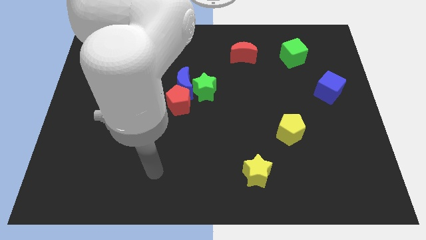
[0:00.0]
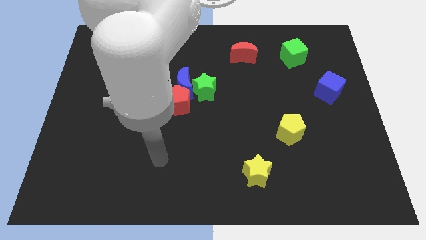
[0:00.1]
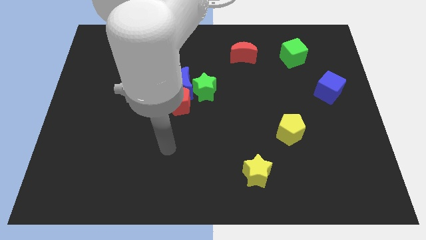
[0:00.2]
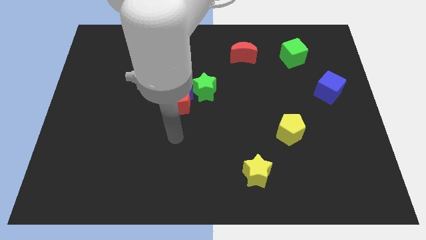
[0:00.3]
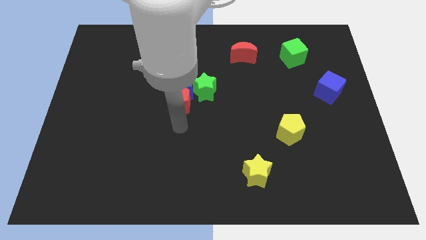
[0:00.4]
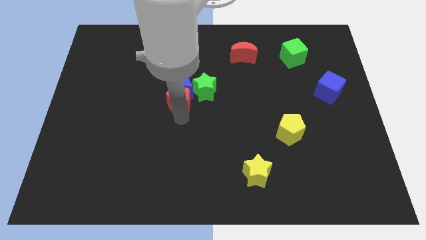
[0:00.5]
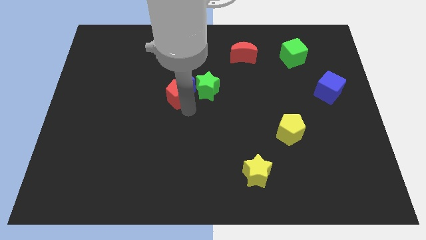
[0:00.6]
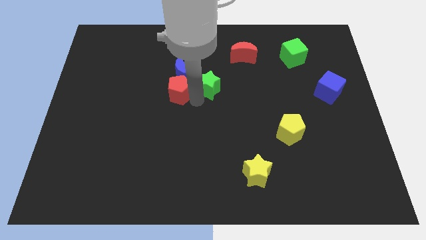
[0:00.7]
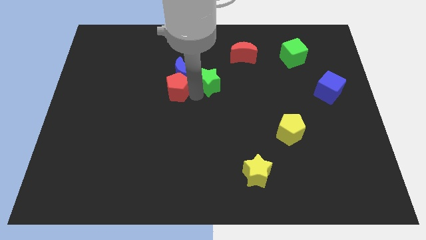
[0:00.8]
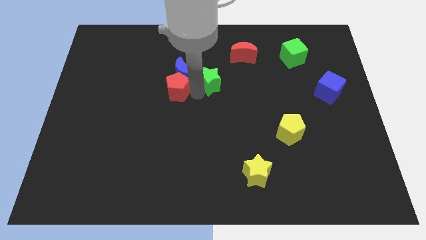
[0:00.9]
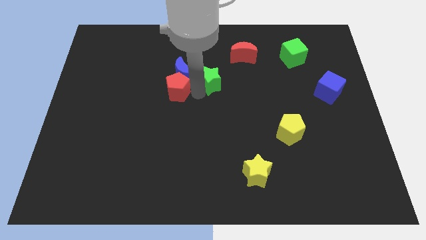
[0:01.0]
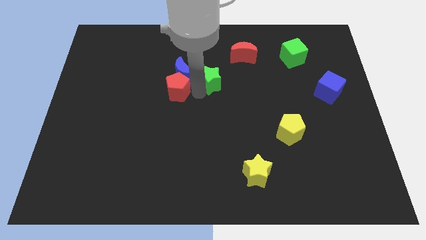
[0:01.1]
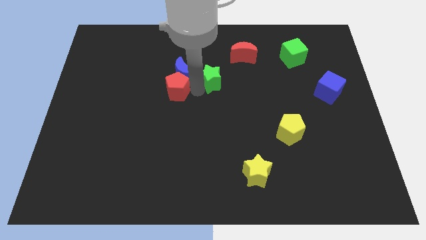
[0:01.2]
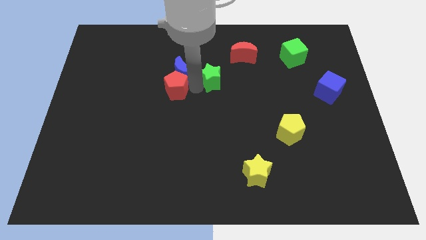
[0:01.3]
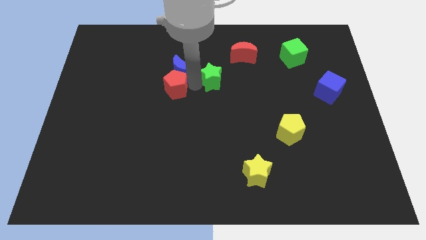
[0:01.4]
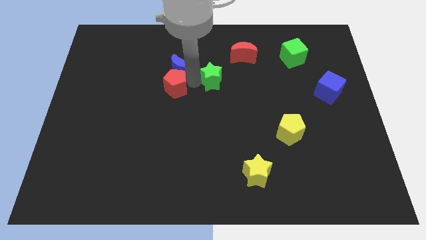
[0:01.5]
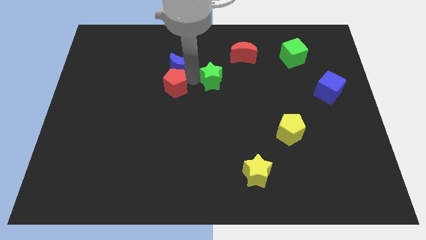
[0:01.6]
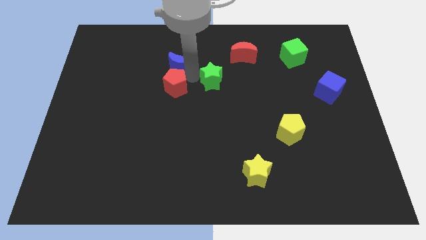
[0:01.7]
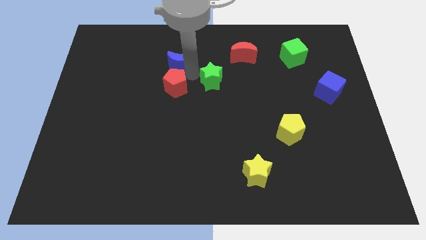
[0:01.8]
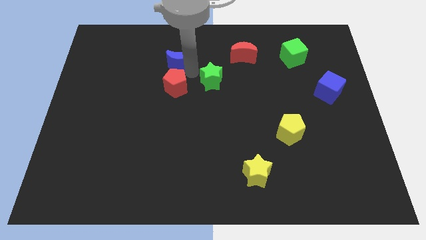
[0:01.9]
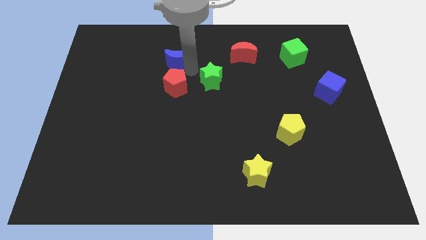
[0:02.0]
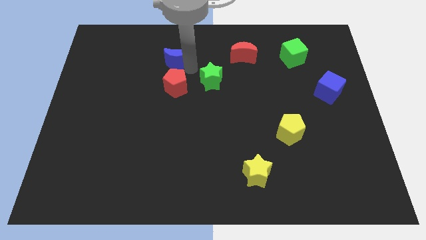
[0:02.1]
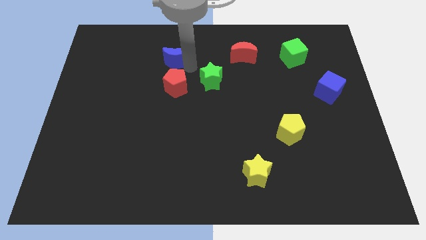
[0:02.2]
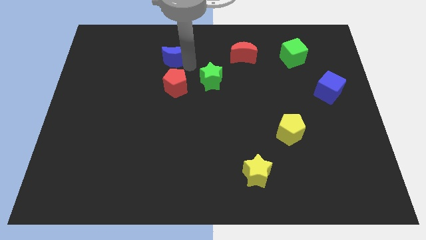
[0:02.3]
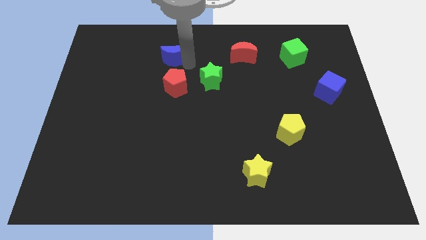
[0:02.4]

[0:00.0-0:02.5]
move the blue moon away from the green star and red pentagon

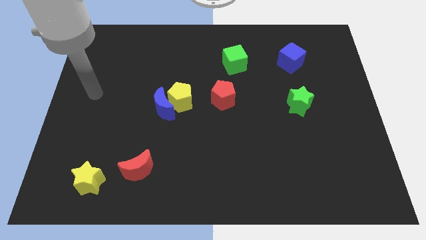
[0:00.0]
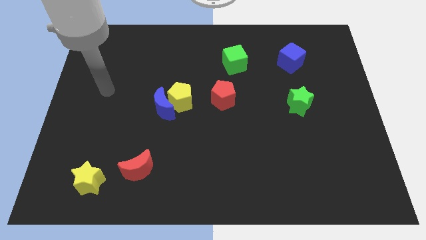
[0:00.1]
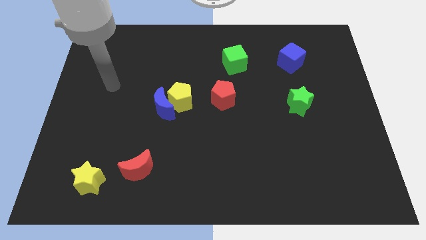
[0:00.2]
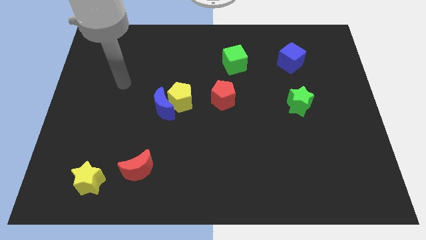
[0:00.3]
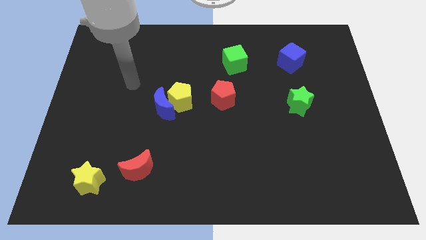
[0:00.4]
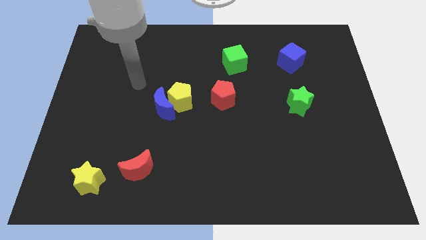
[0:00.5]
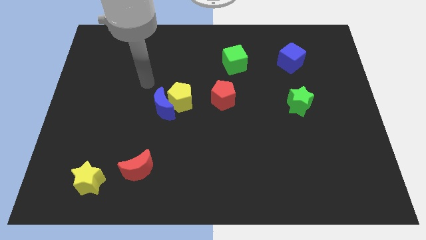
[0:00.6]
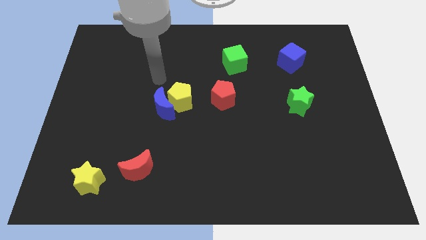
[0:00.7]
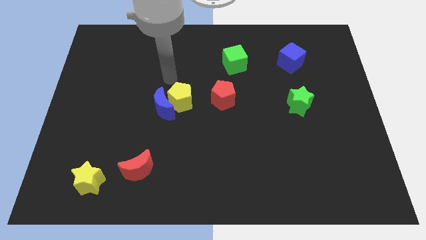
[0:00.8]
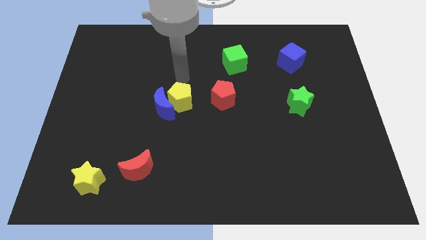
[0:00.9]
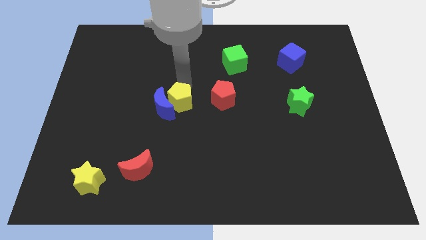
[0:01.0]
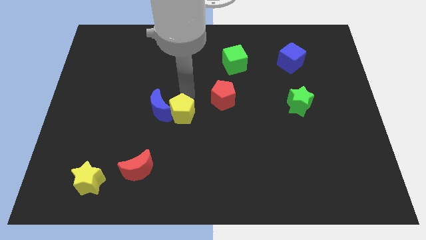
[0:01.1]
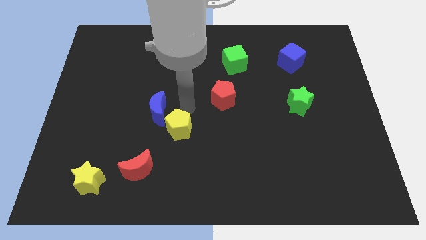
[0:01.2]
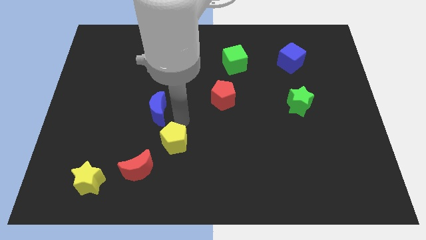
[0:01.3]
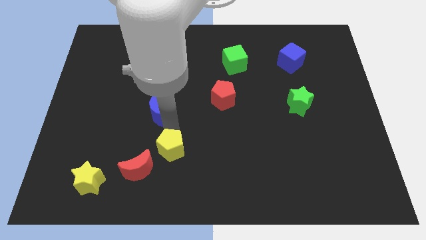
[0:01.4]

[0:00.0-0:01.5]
separate the blue moon from the yellow pentagon

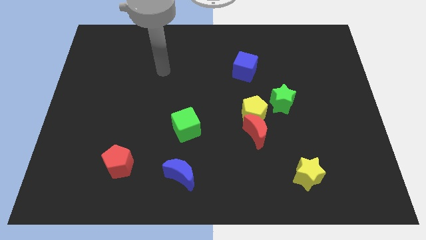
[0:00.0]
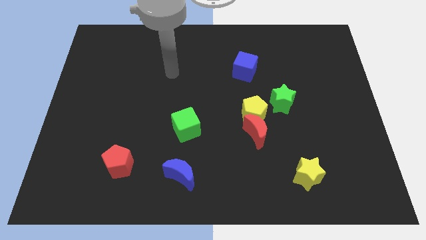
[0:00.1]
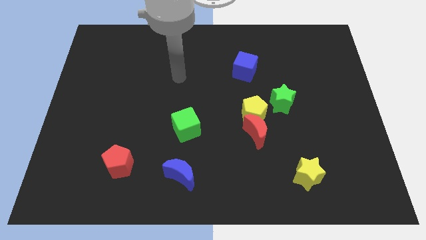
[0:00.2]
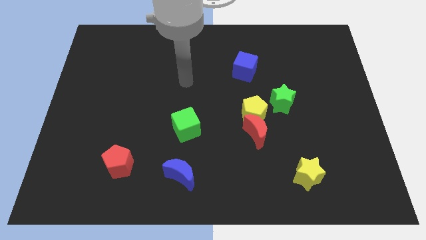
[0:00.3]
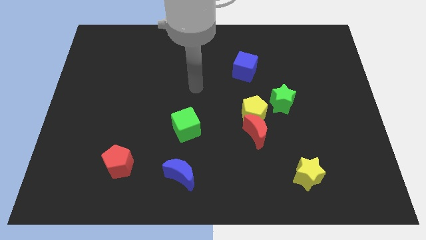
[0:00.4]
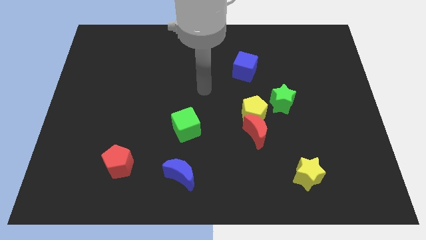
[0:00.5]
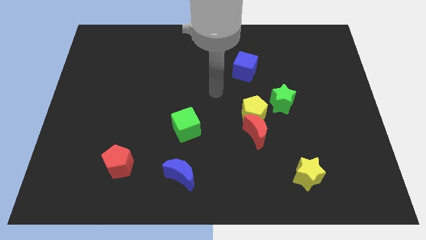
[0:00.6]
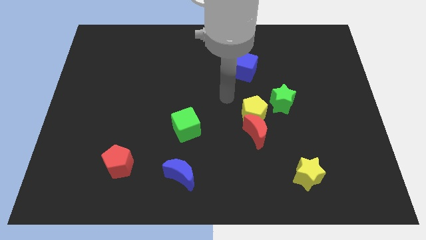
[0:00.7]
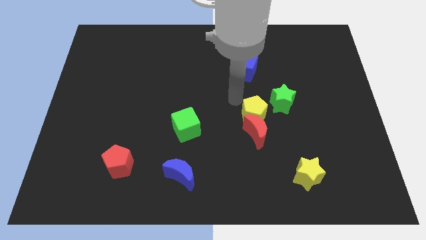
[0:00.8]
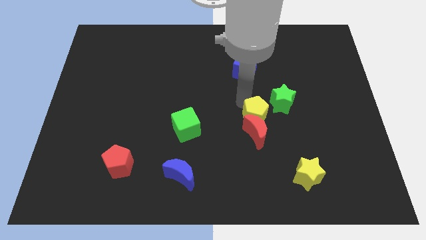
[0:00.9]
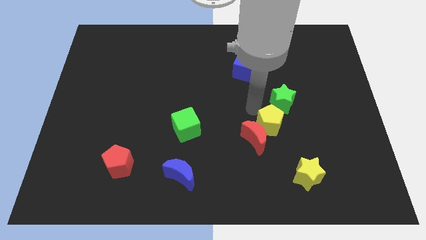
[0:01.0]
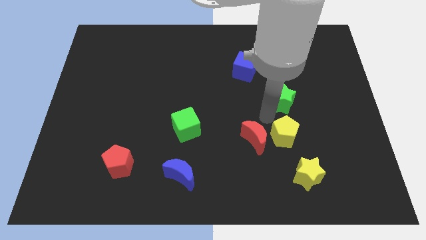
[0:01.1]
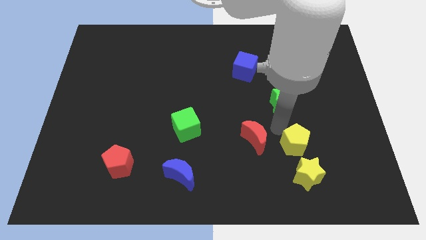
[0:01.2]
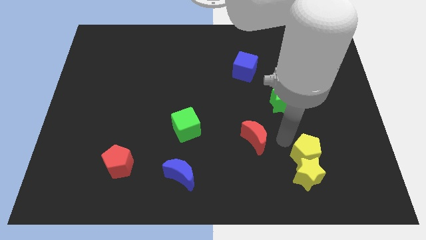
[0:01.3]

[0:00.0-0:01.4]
move the red moon away from the yellow pentagon

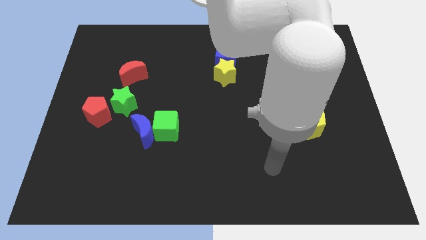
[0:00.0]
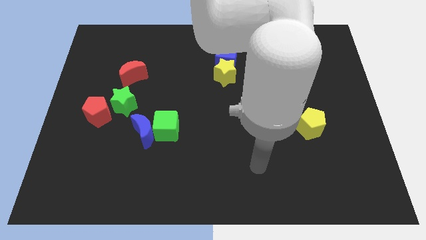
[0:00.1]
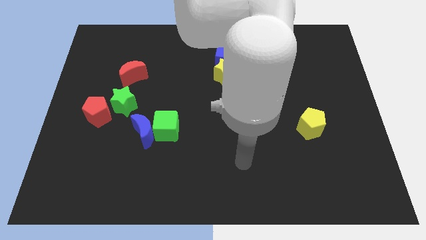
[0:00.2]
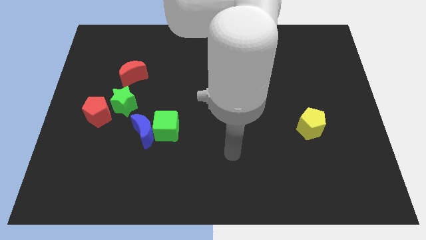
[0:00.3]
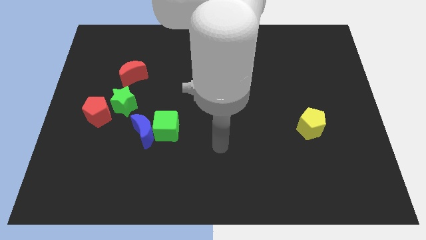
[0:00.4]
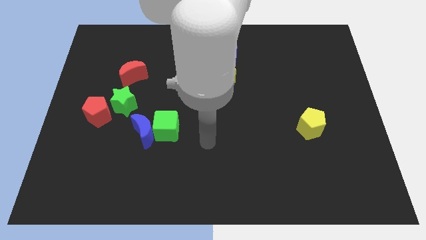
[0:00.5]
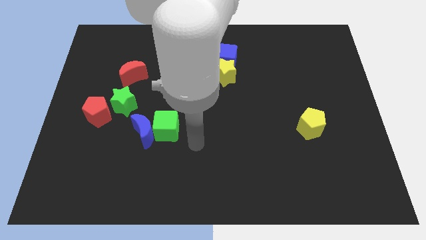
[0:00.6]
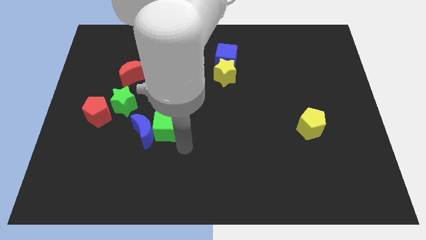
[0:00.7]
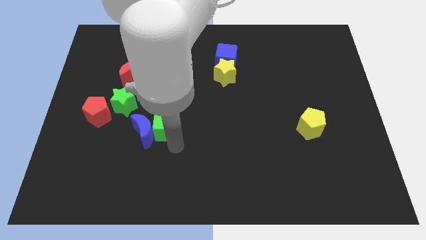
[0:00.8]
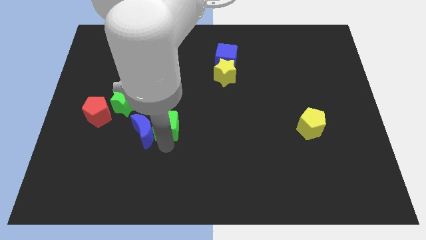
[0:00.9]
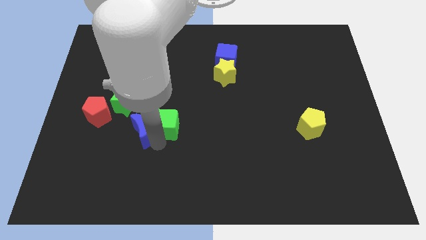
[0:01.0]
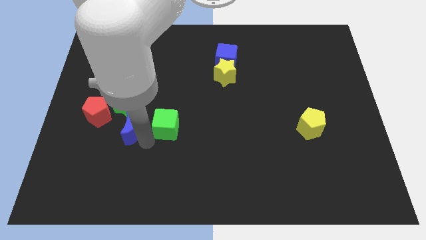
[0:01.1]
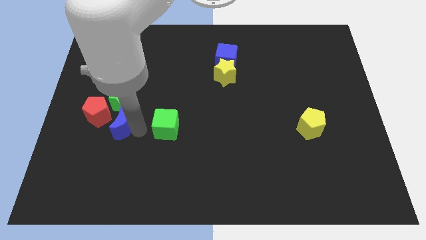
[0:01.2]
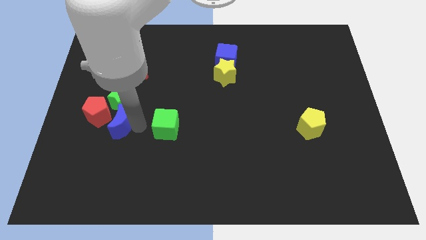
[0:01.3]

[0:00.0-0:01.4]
pull the green cube apart from the blue moon

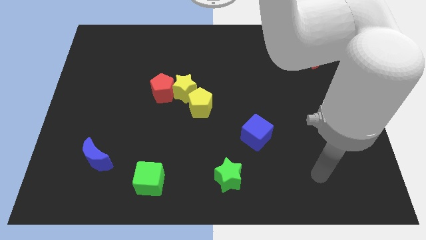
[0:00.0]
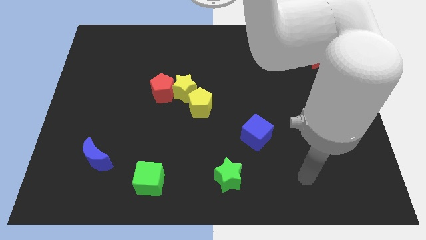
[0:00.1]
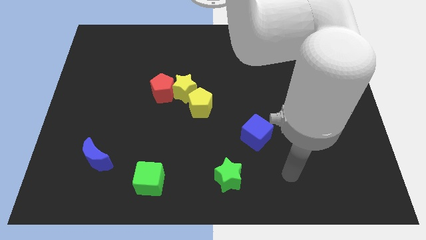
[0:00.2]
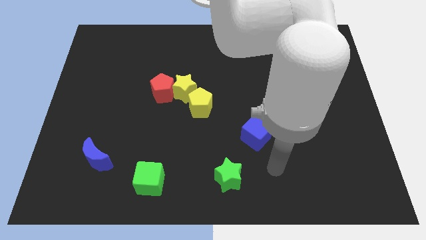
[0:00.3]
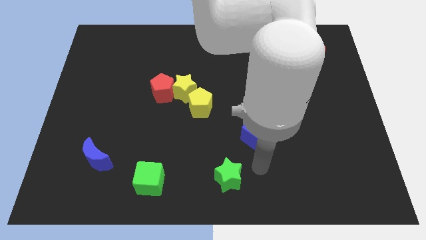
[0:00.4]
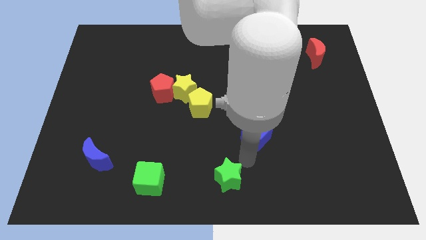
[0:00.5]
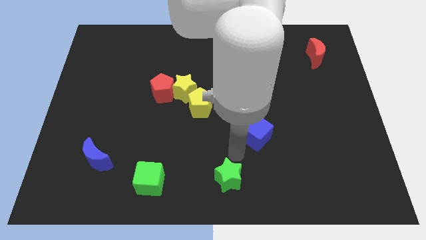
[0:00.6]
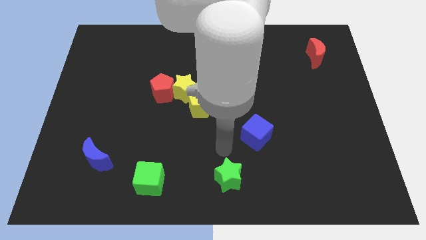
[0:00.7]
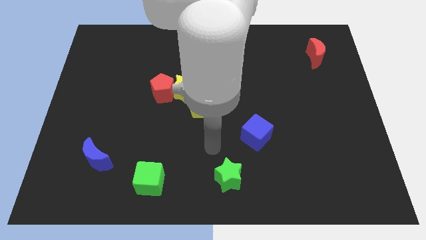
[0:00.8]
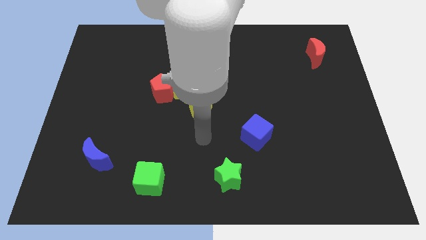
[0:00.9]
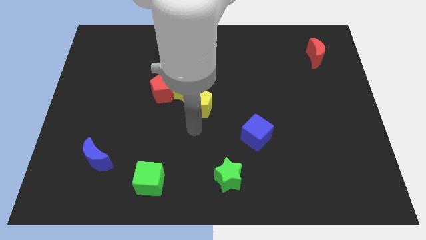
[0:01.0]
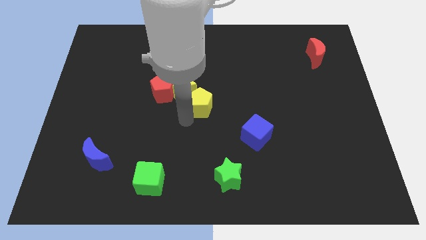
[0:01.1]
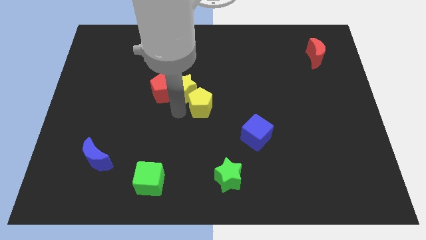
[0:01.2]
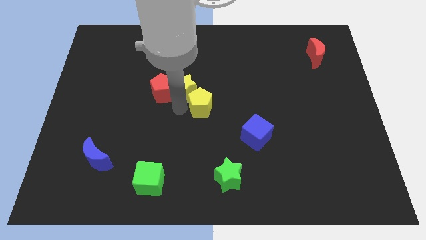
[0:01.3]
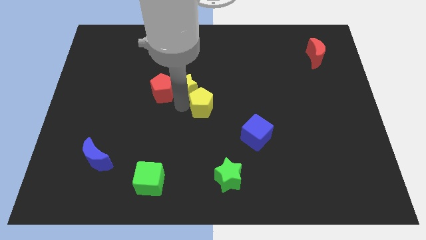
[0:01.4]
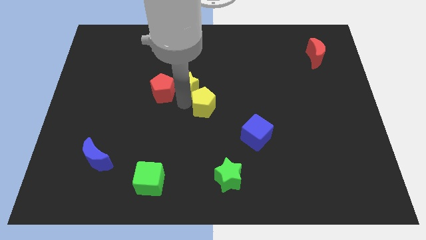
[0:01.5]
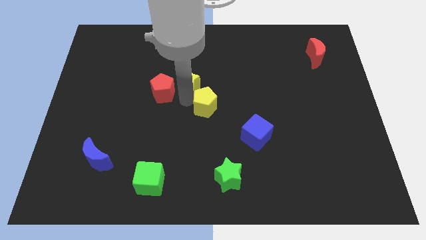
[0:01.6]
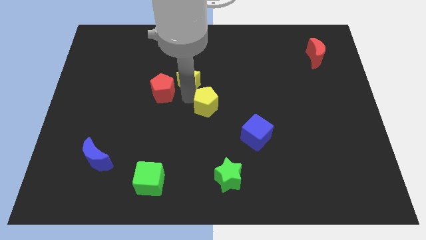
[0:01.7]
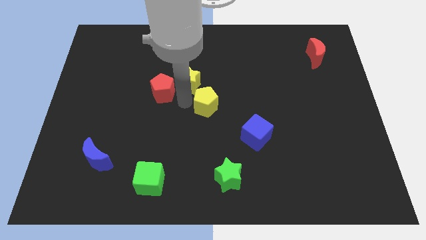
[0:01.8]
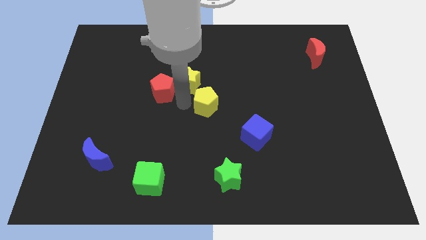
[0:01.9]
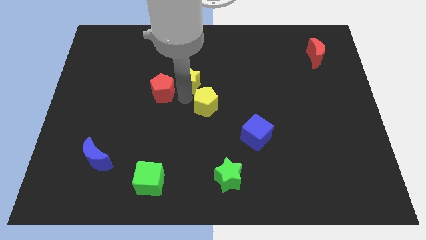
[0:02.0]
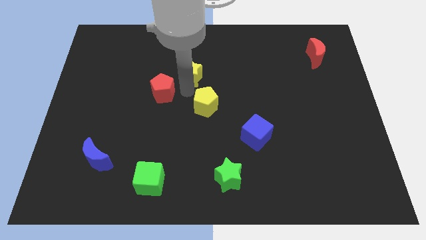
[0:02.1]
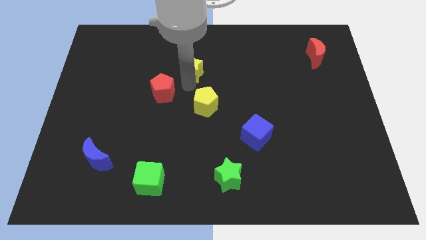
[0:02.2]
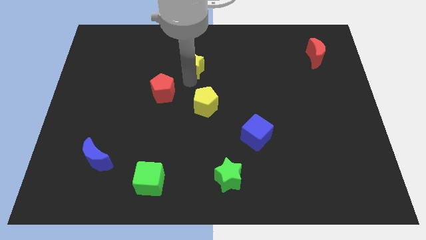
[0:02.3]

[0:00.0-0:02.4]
pull the yellow star apart from the red pentagon and yellow pentagon

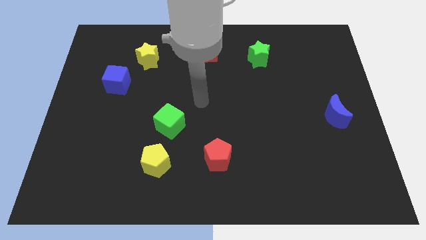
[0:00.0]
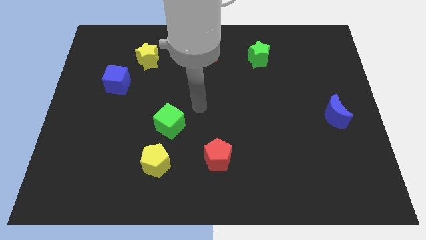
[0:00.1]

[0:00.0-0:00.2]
separate the green cube from the yellow pentagon
